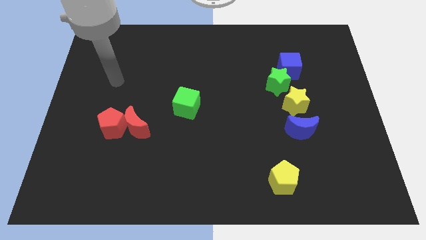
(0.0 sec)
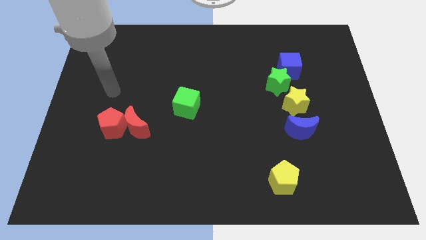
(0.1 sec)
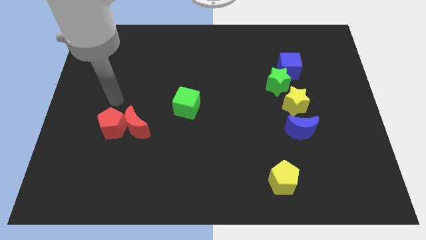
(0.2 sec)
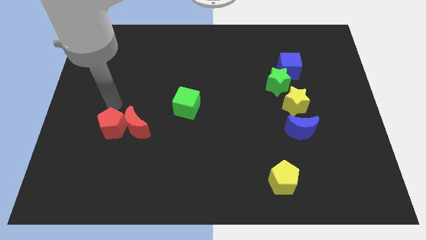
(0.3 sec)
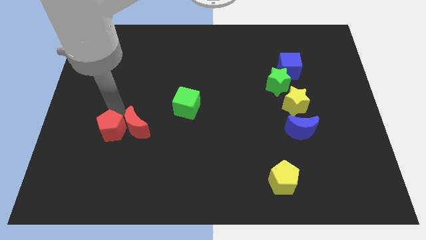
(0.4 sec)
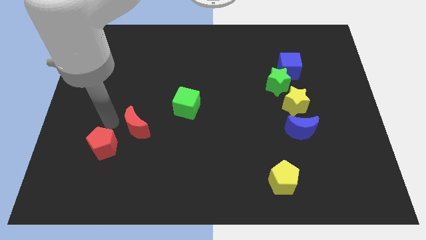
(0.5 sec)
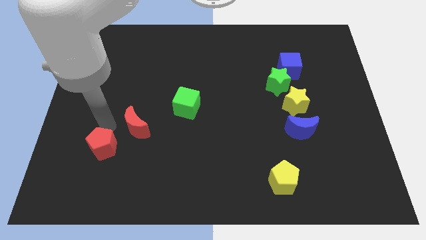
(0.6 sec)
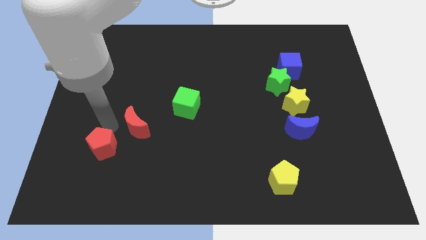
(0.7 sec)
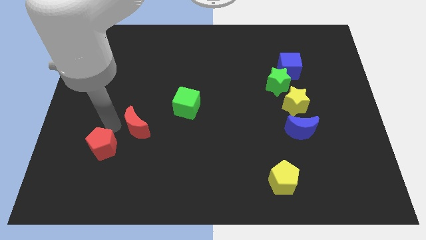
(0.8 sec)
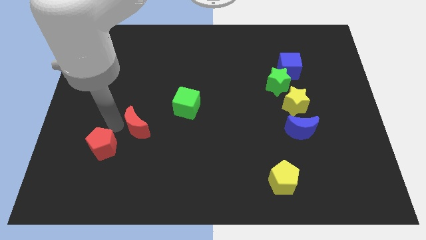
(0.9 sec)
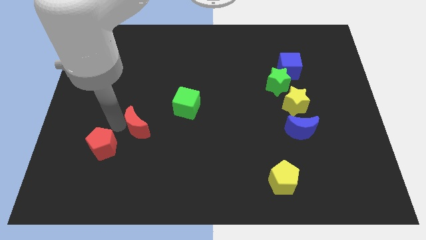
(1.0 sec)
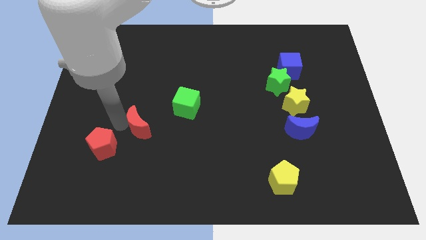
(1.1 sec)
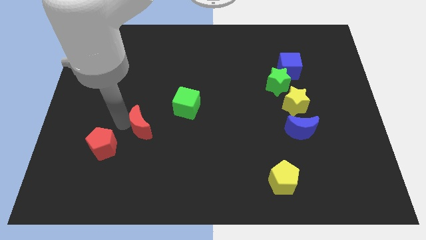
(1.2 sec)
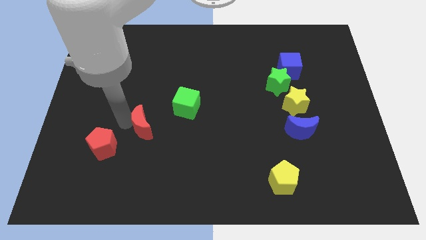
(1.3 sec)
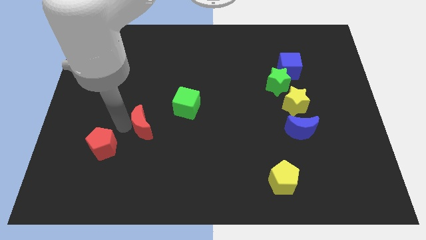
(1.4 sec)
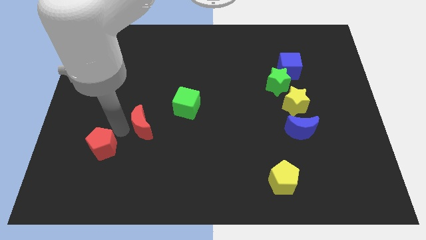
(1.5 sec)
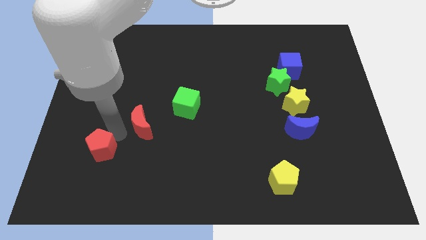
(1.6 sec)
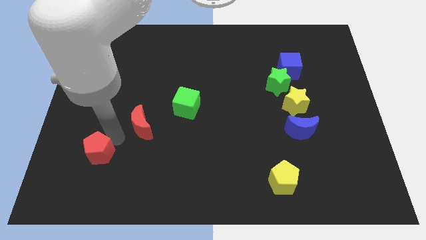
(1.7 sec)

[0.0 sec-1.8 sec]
move the red moon away from the red pentagon

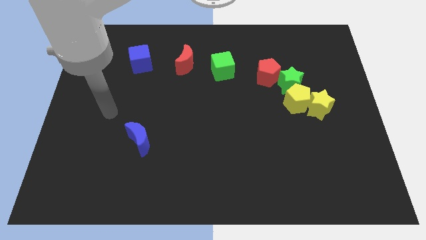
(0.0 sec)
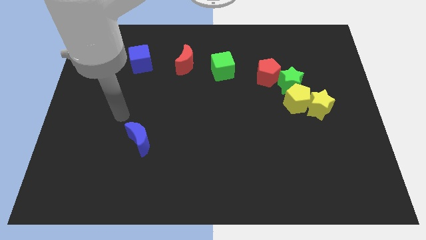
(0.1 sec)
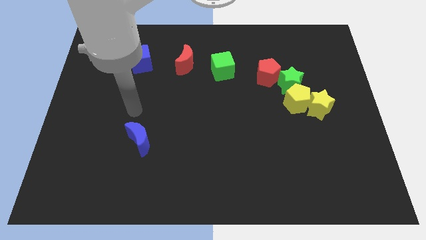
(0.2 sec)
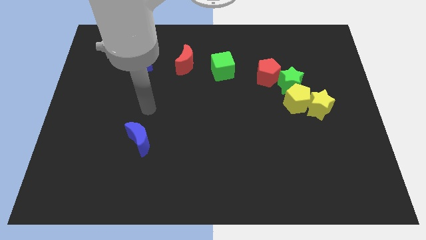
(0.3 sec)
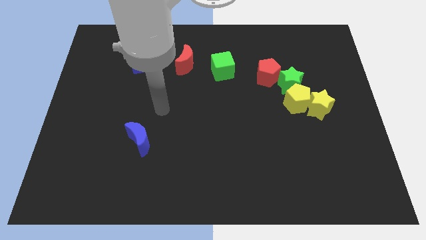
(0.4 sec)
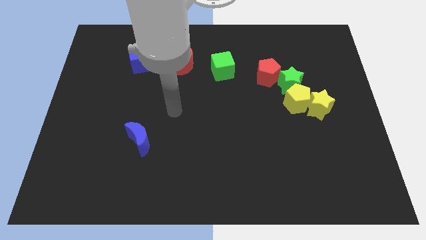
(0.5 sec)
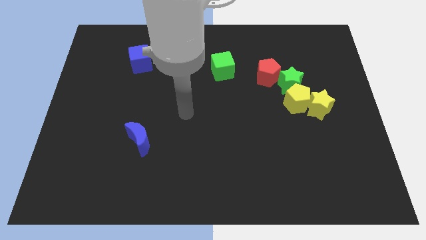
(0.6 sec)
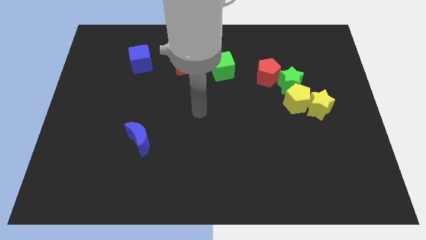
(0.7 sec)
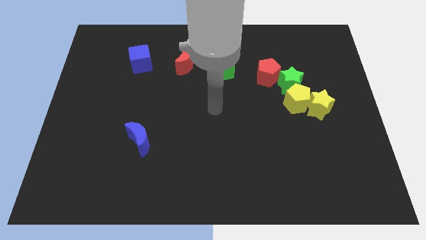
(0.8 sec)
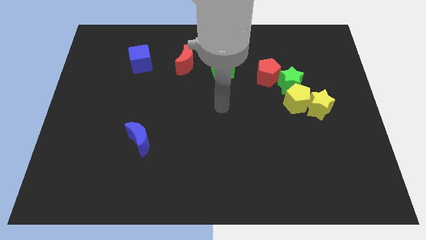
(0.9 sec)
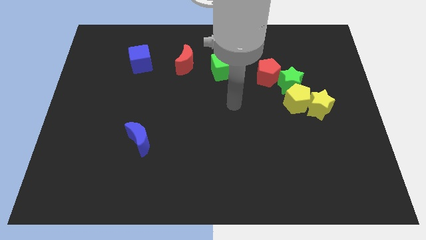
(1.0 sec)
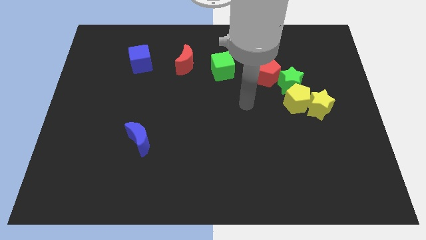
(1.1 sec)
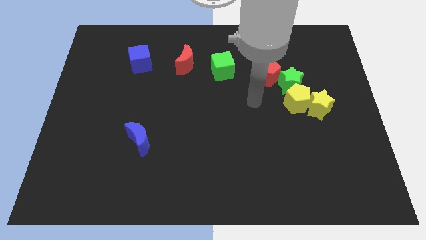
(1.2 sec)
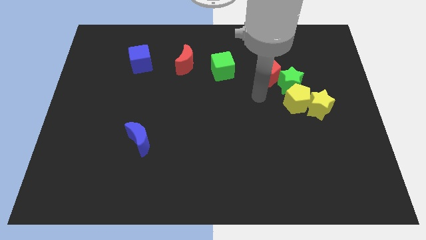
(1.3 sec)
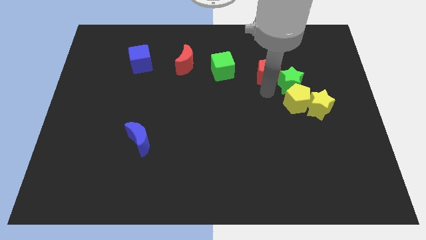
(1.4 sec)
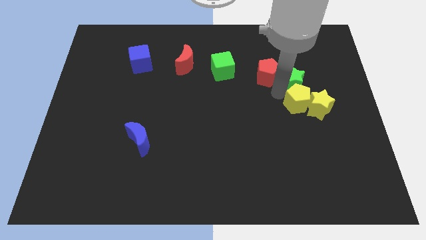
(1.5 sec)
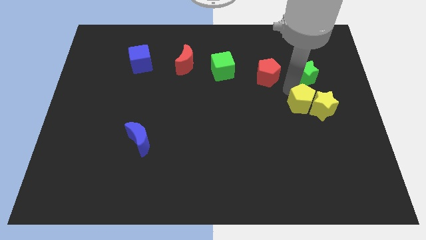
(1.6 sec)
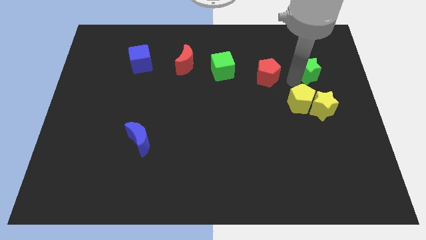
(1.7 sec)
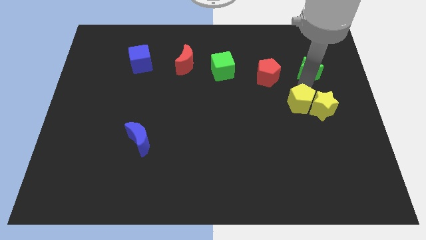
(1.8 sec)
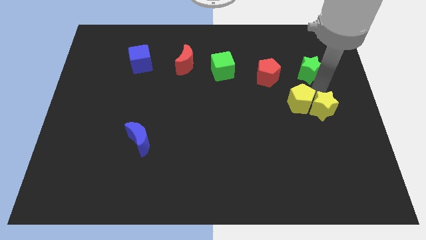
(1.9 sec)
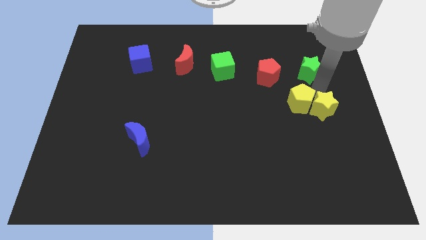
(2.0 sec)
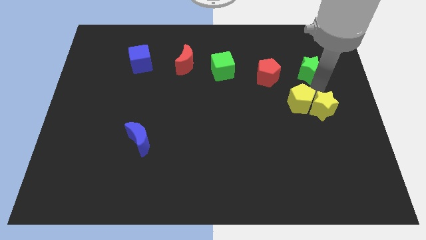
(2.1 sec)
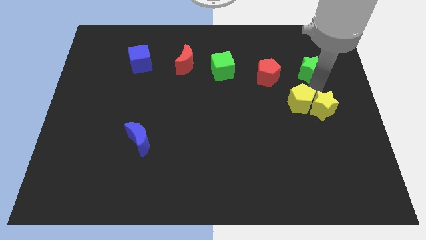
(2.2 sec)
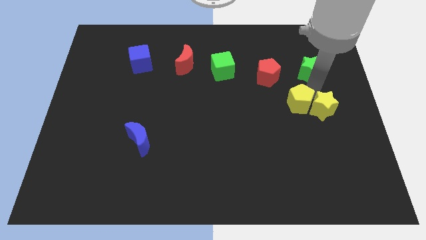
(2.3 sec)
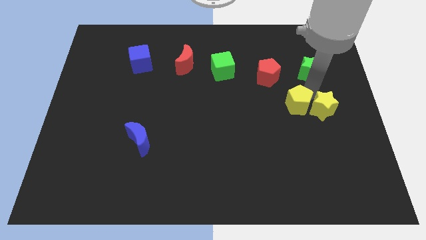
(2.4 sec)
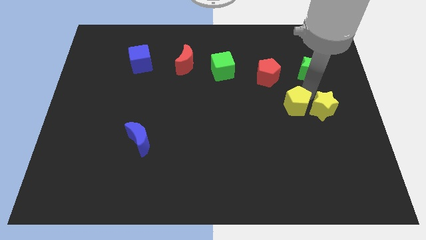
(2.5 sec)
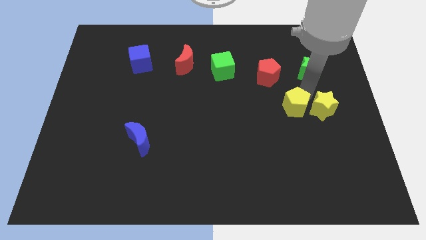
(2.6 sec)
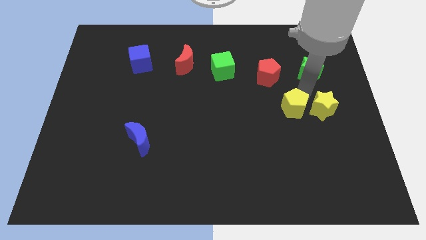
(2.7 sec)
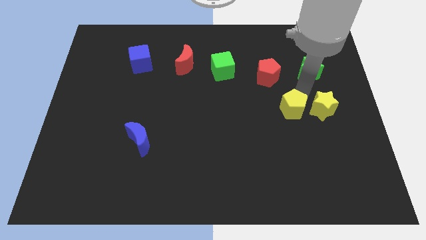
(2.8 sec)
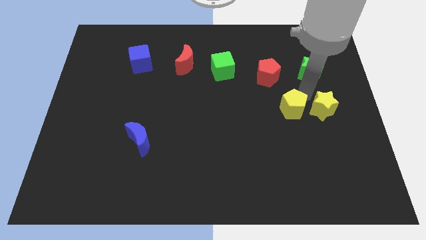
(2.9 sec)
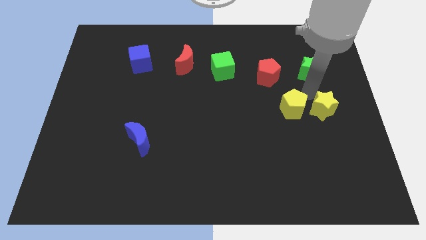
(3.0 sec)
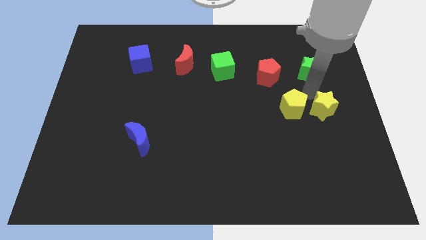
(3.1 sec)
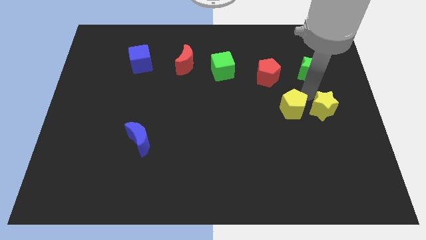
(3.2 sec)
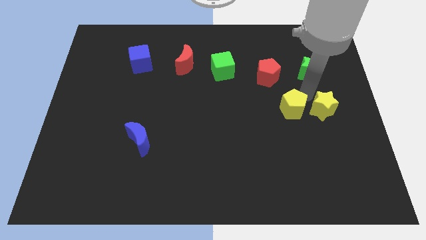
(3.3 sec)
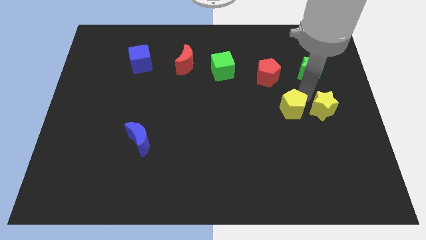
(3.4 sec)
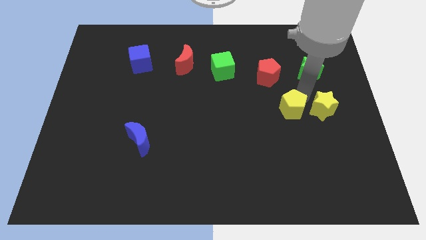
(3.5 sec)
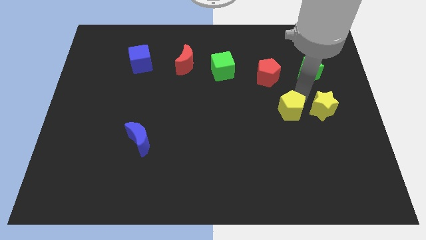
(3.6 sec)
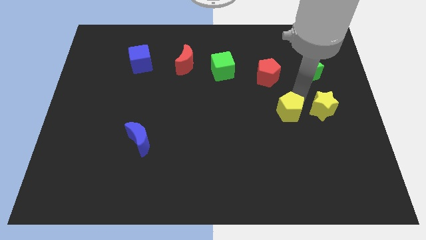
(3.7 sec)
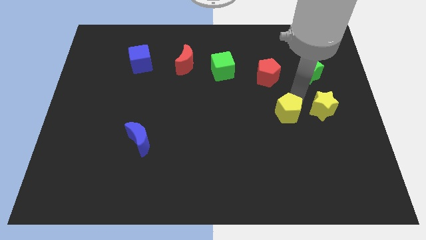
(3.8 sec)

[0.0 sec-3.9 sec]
separate the yellow pentagon from the yellow star and green star

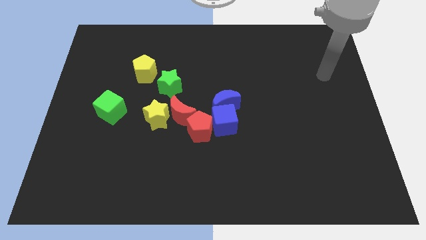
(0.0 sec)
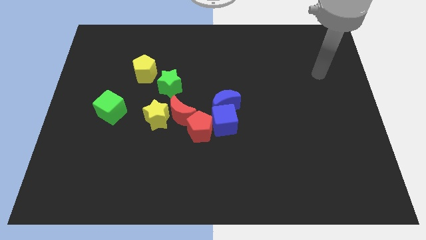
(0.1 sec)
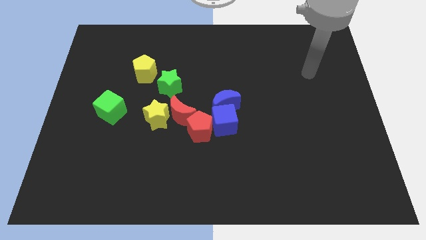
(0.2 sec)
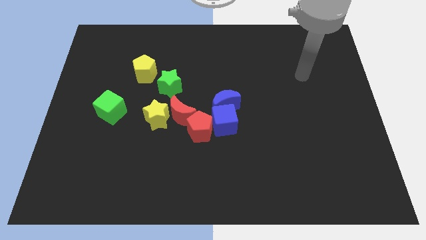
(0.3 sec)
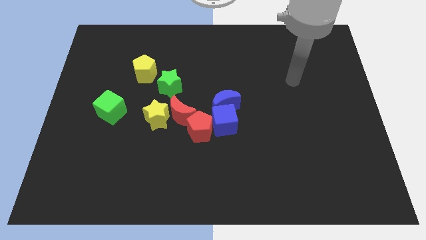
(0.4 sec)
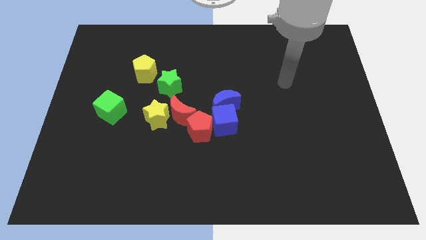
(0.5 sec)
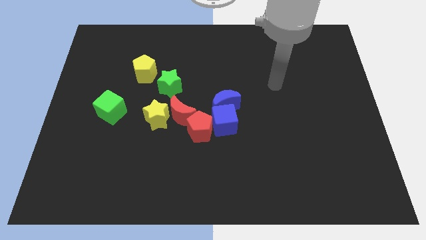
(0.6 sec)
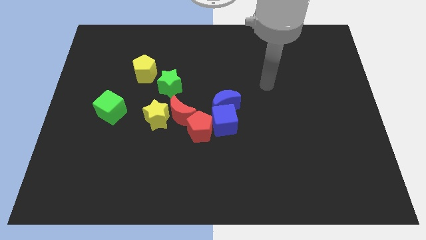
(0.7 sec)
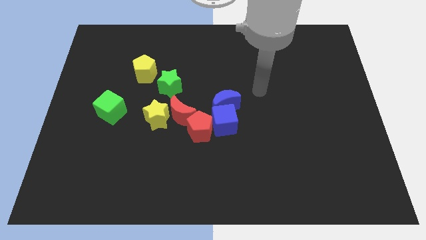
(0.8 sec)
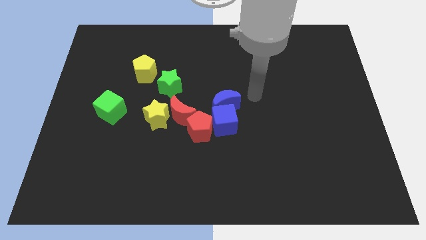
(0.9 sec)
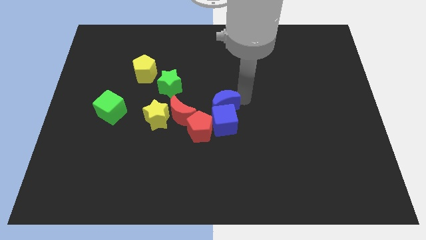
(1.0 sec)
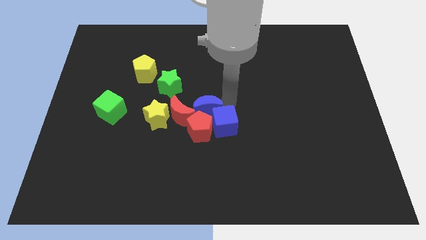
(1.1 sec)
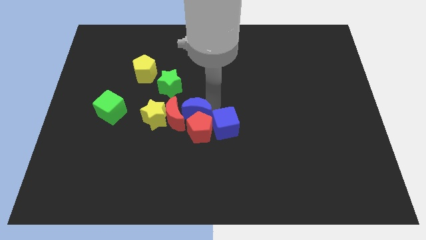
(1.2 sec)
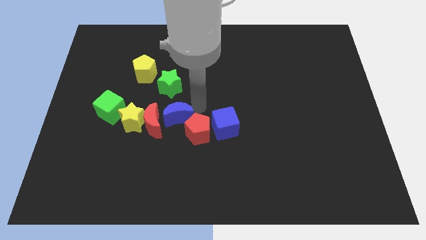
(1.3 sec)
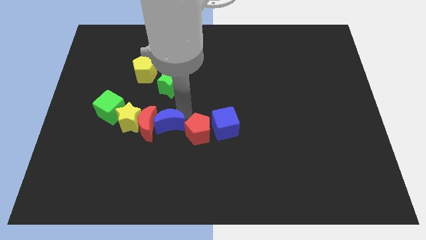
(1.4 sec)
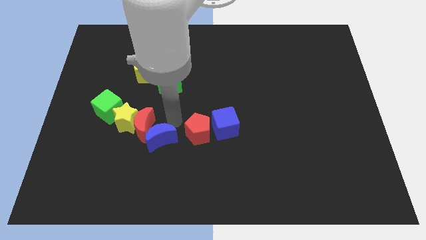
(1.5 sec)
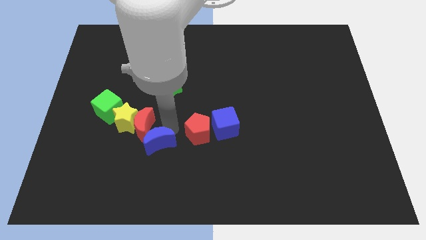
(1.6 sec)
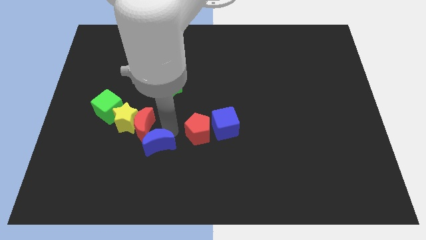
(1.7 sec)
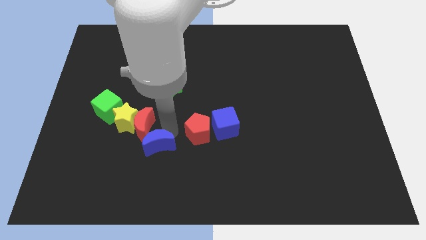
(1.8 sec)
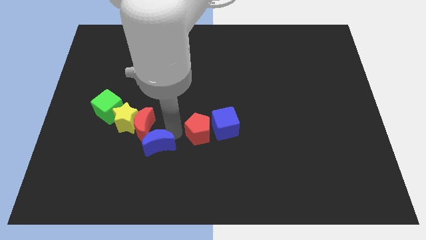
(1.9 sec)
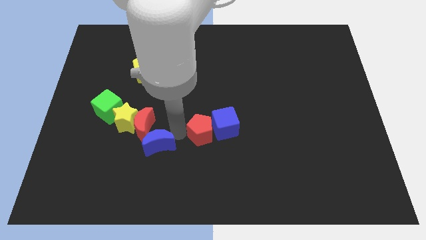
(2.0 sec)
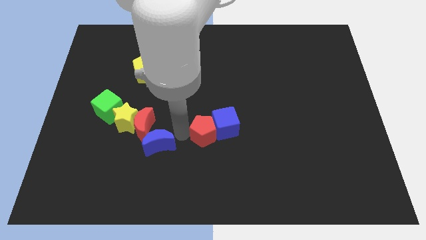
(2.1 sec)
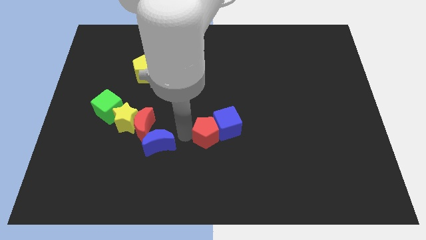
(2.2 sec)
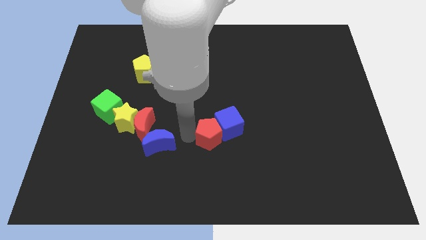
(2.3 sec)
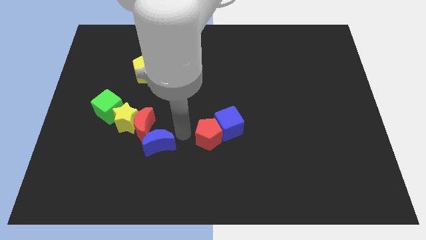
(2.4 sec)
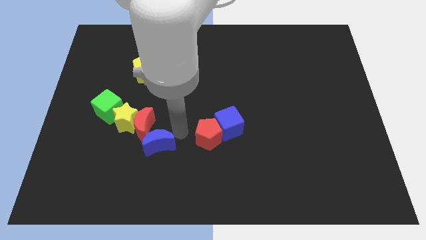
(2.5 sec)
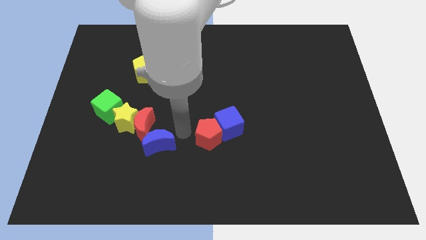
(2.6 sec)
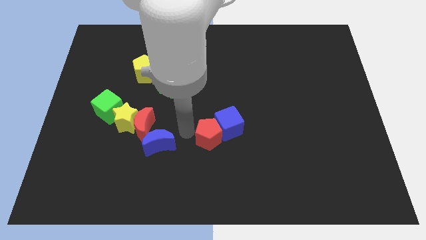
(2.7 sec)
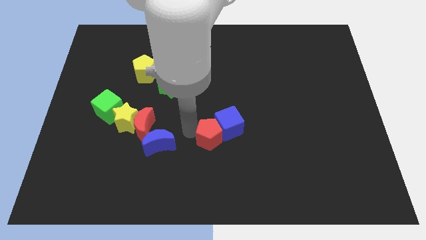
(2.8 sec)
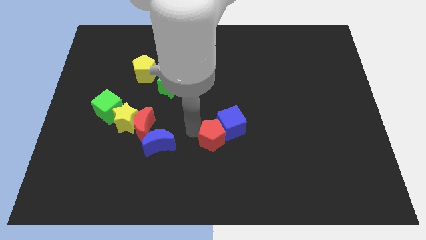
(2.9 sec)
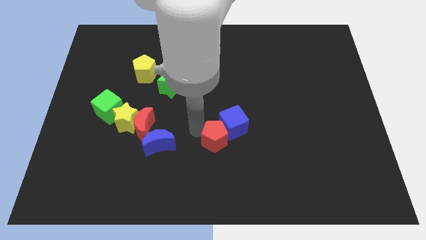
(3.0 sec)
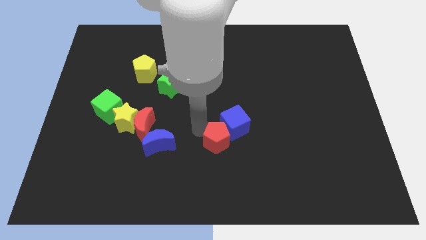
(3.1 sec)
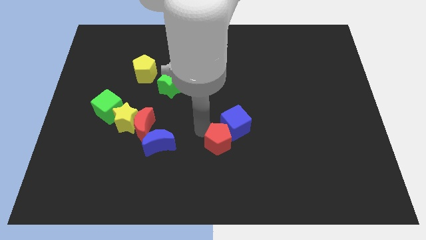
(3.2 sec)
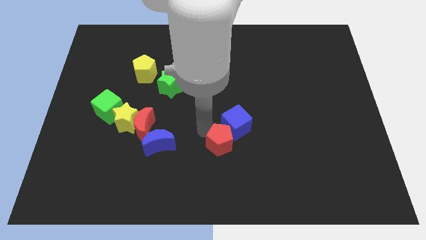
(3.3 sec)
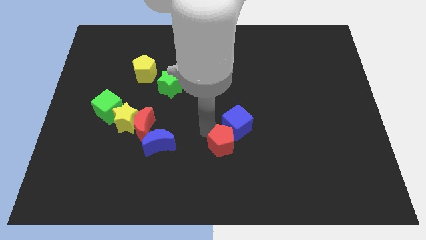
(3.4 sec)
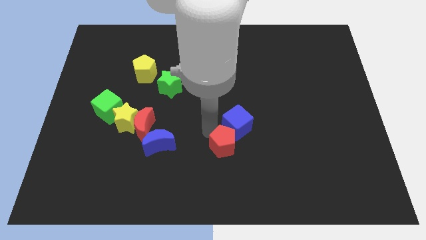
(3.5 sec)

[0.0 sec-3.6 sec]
move the red pentagon away from the blue cube, red moon, and blue moon
